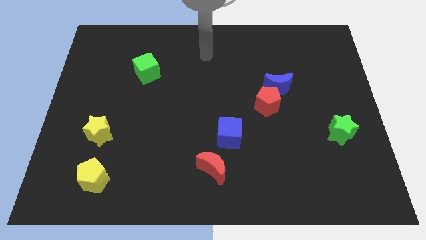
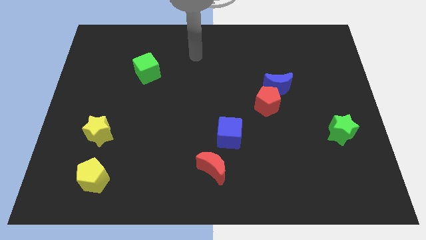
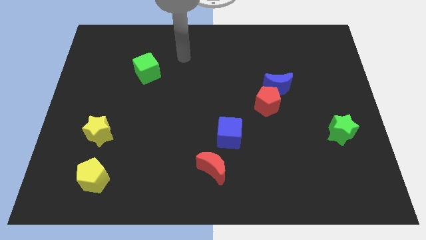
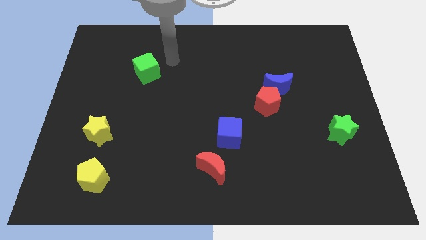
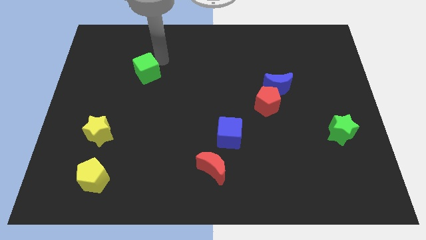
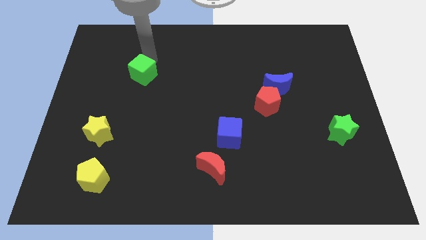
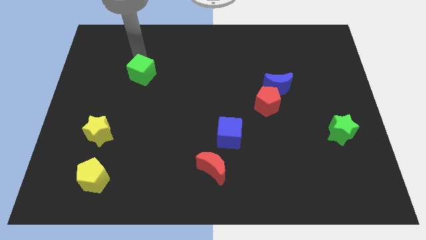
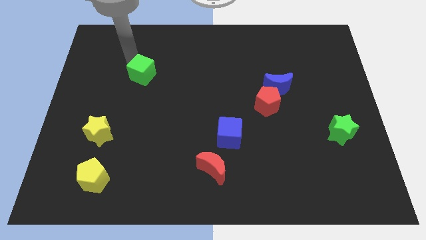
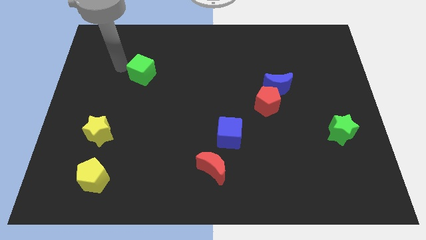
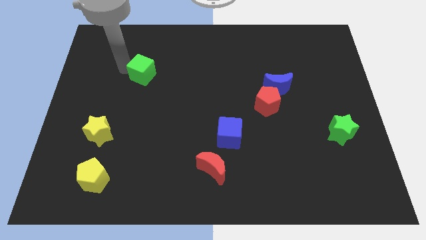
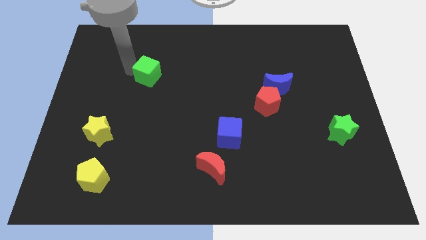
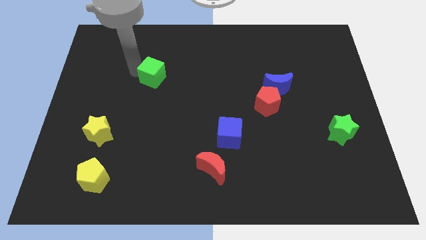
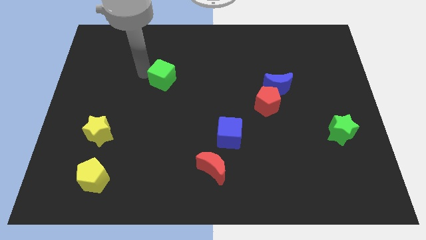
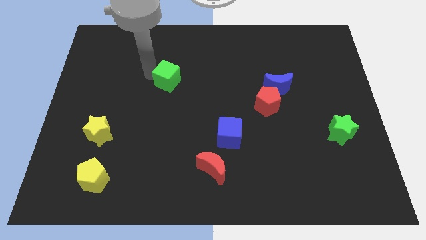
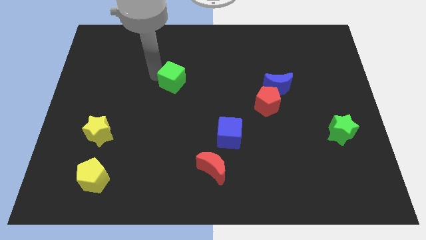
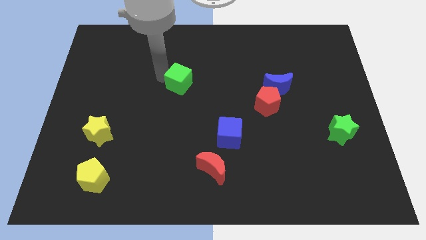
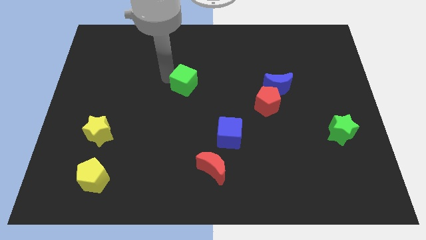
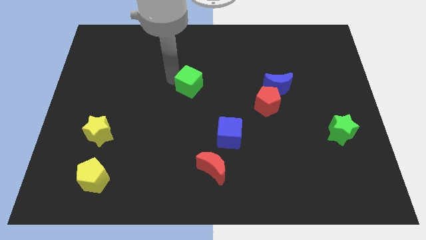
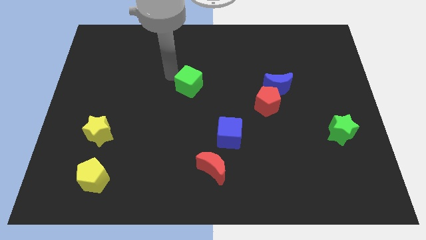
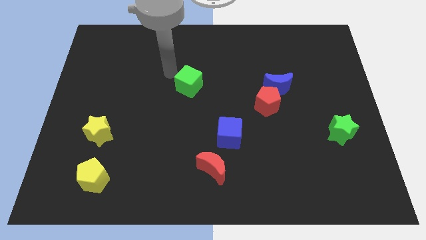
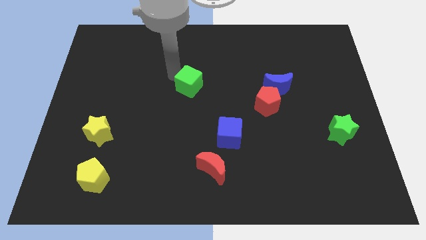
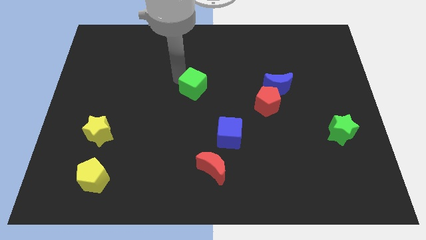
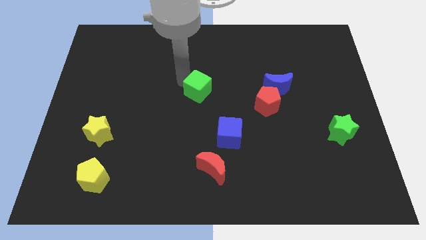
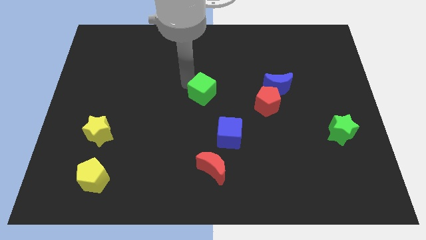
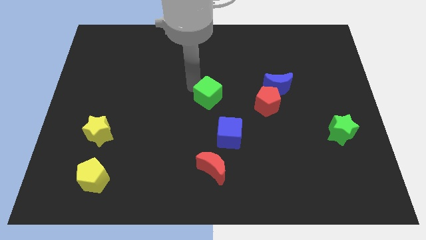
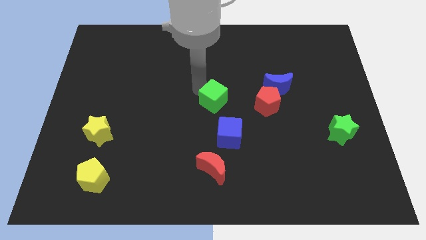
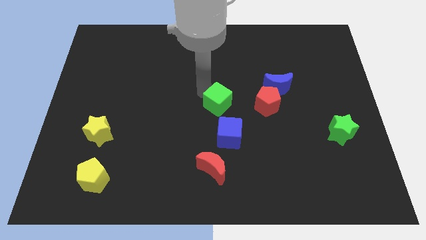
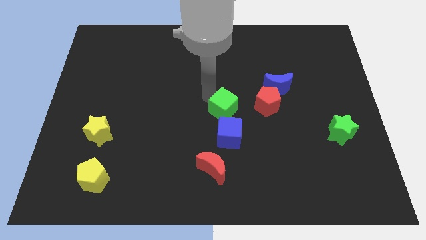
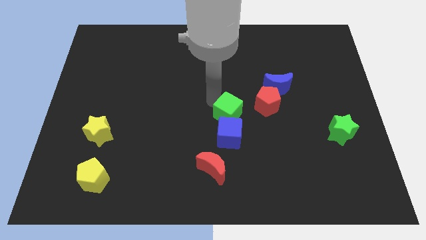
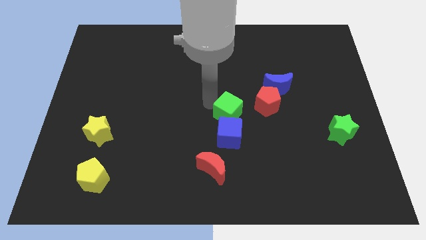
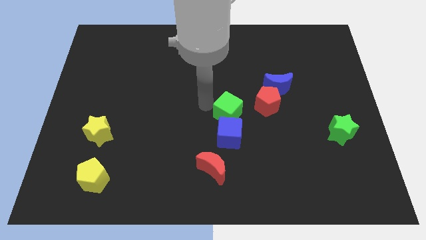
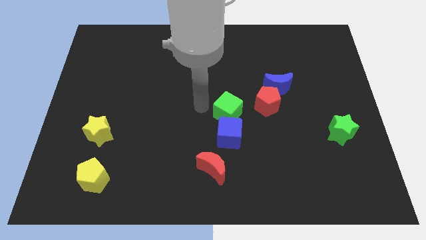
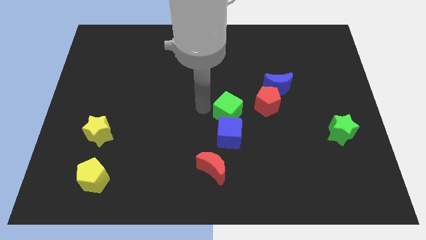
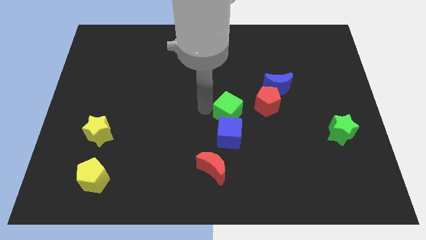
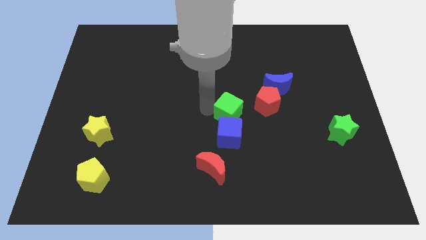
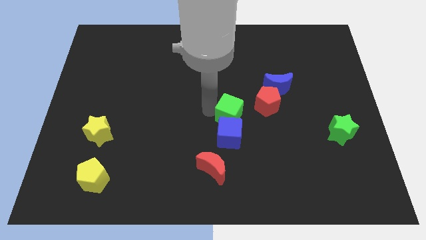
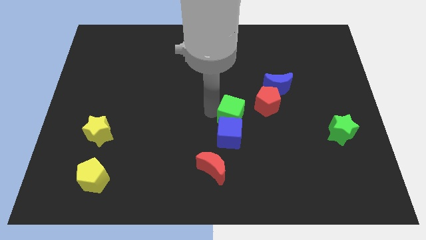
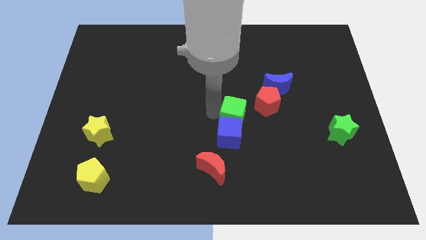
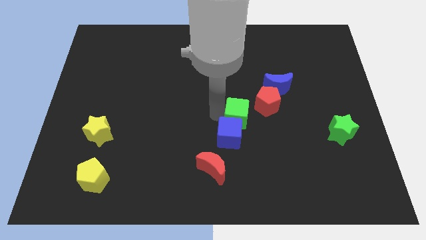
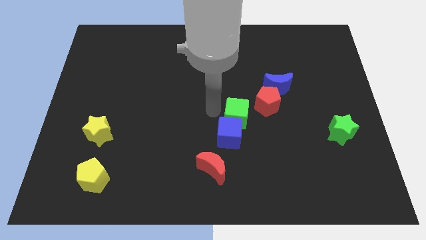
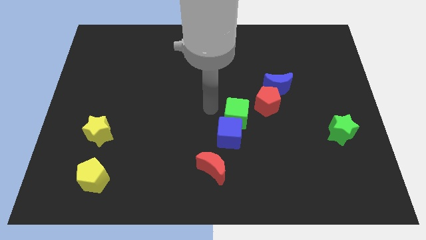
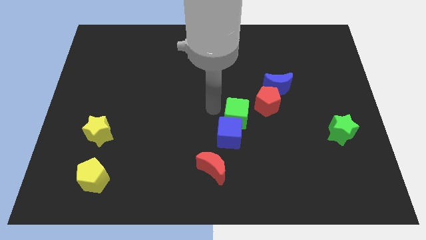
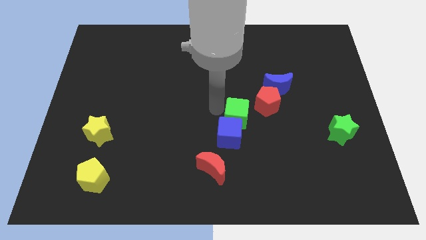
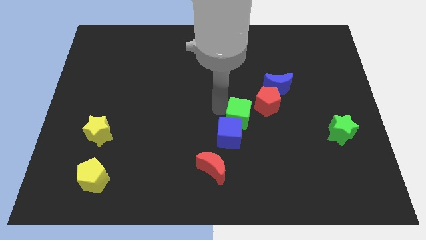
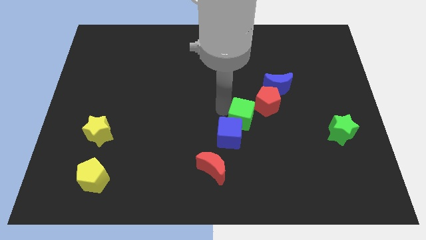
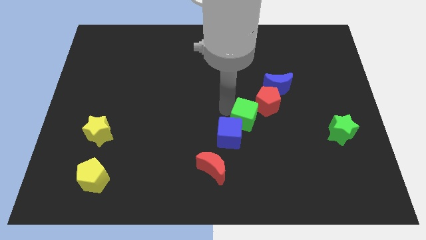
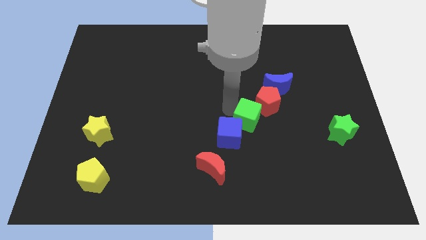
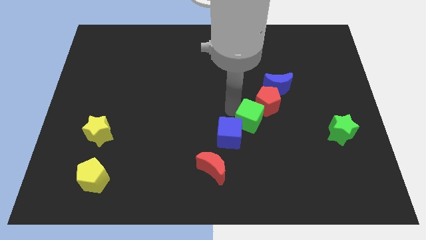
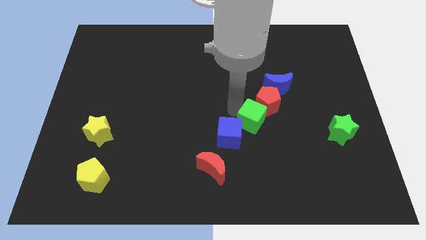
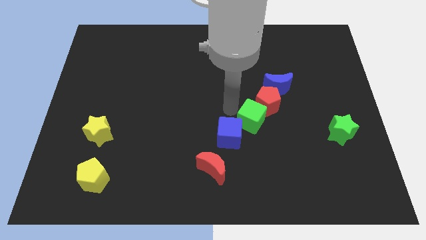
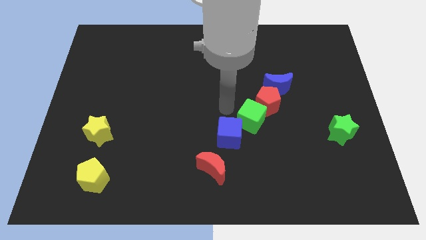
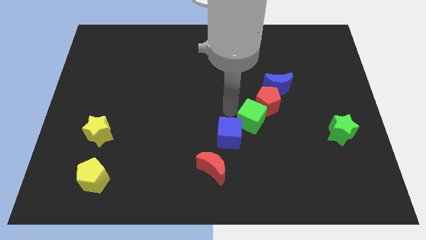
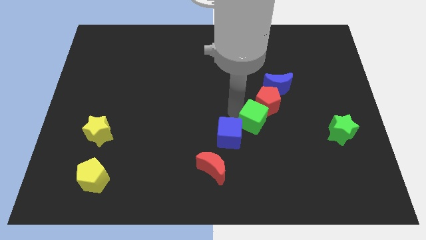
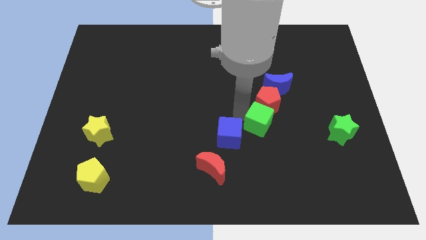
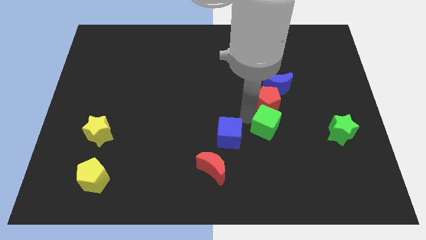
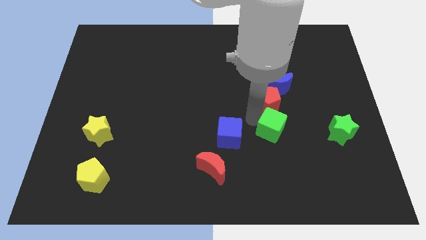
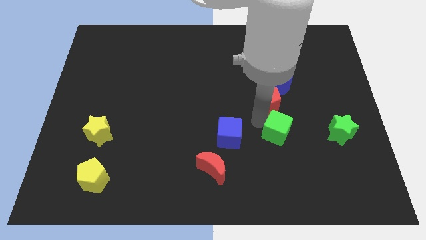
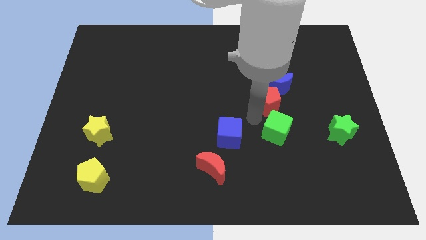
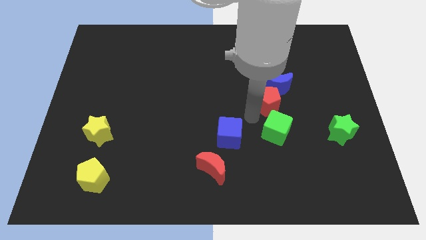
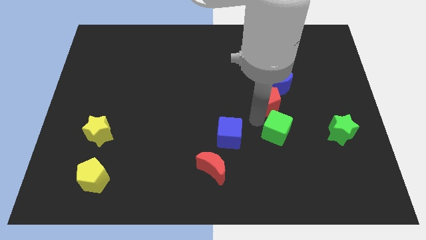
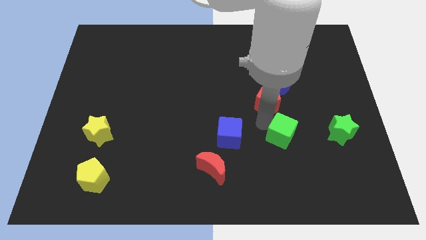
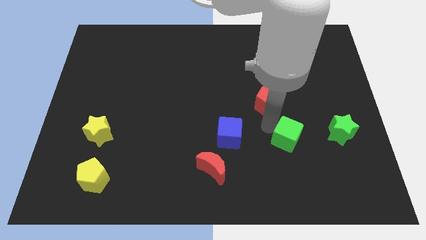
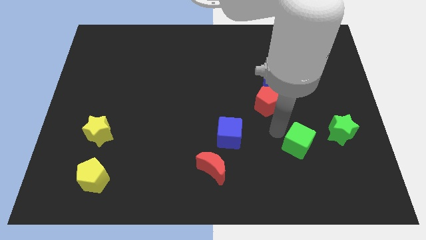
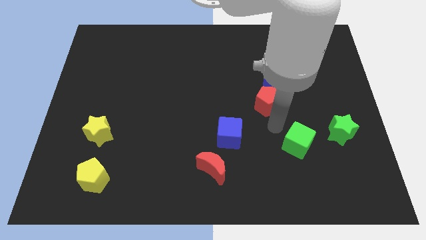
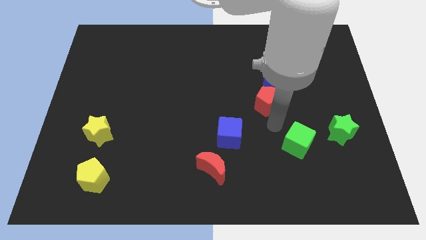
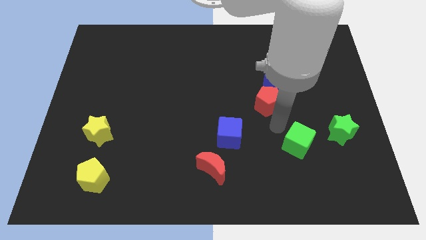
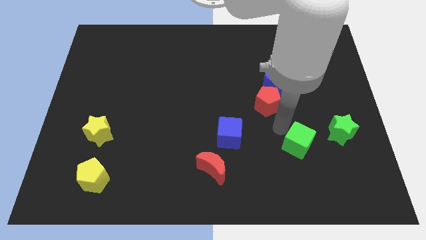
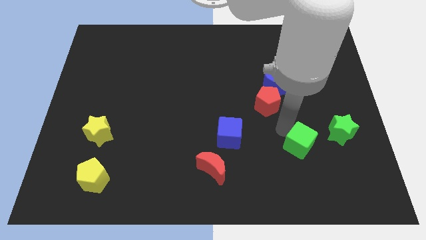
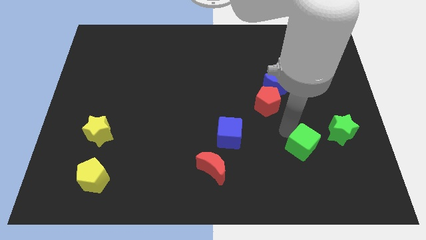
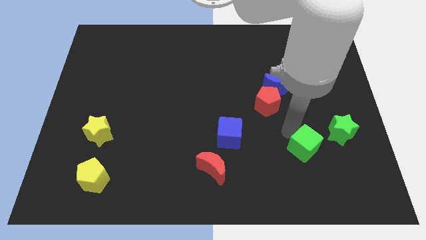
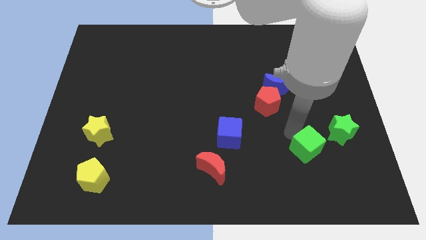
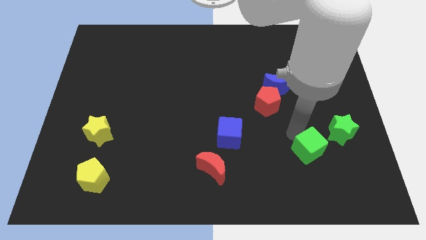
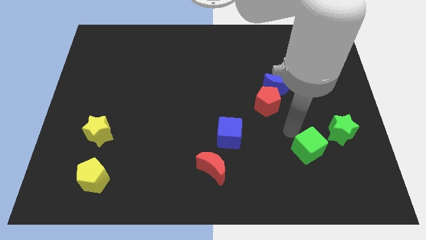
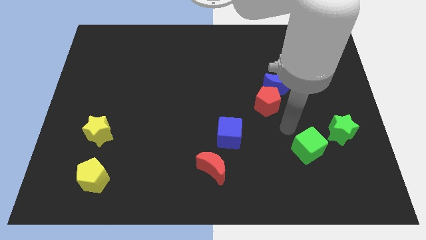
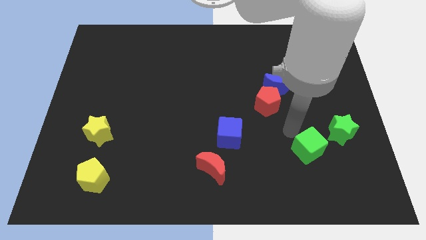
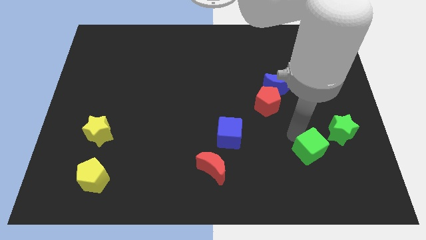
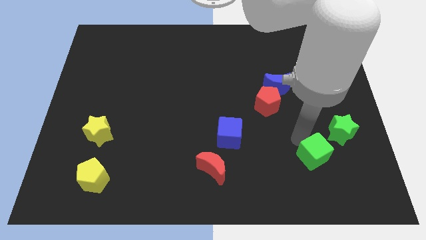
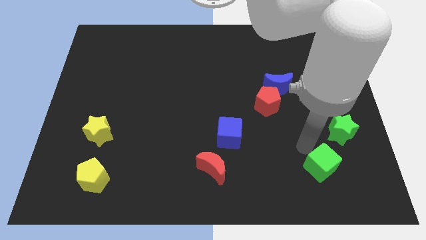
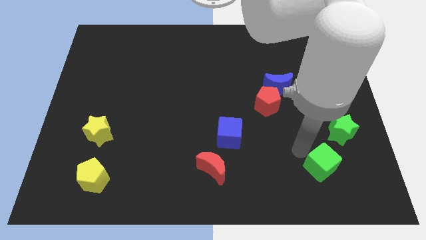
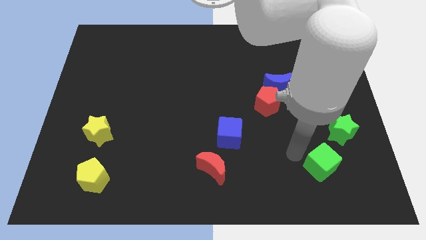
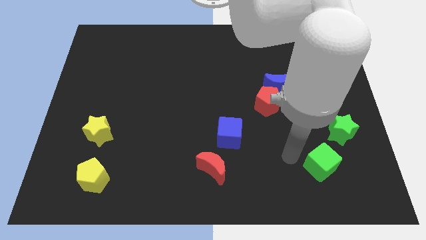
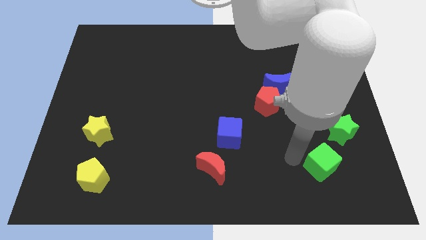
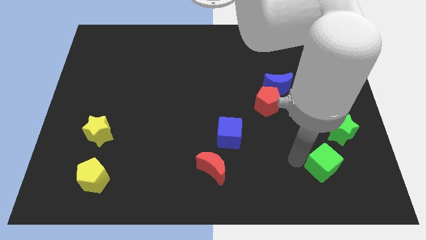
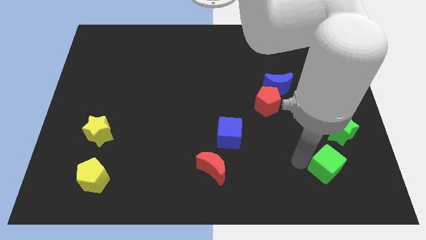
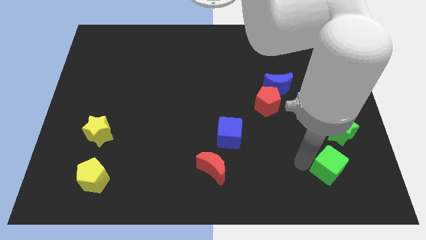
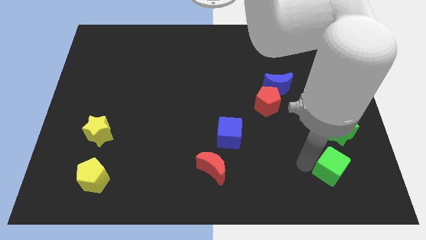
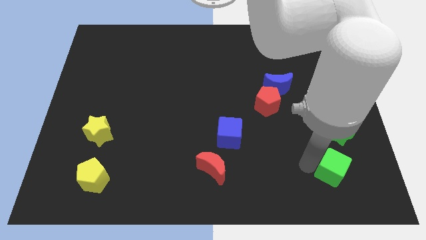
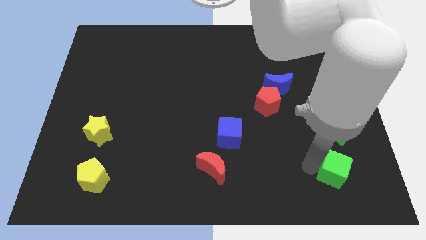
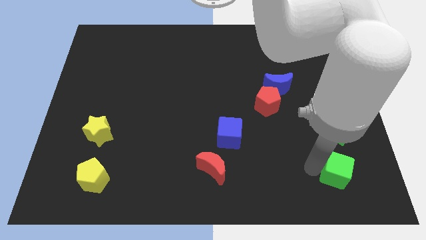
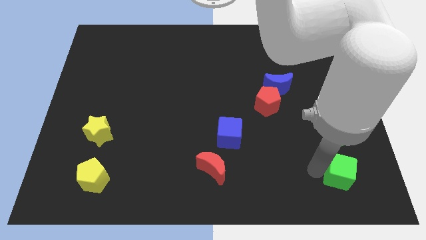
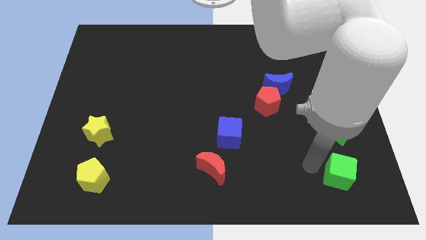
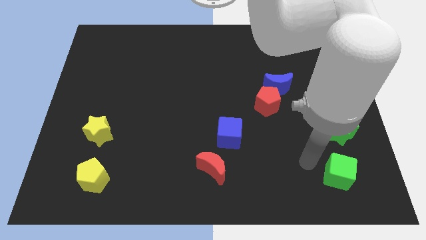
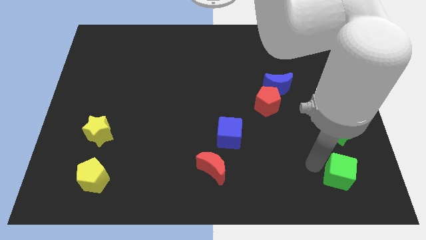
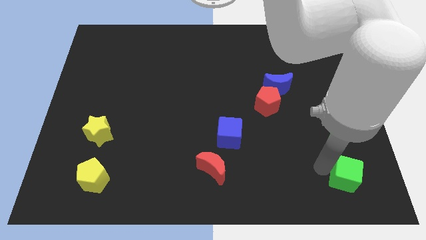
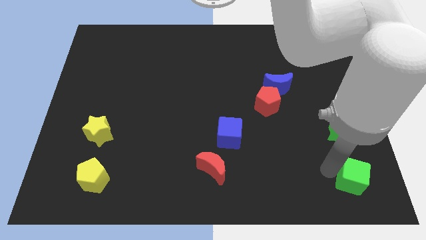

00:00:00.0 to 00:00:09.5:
put the green cube to the lower right corner
